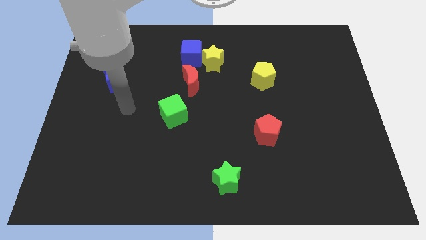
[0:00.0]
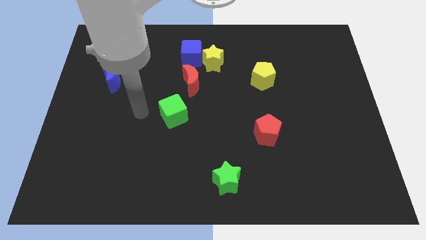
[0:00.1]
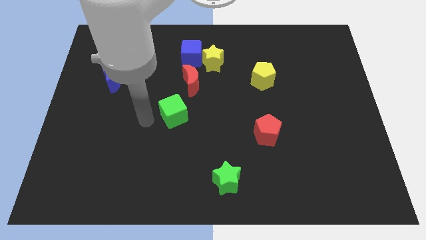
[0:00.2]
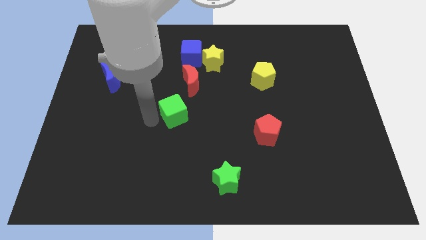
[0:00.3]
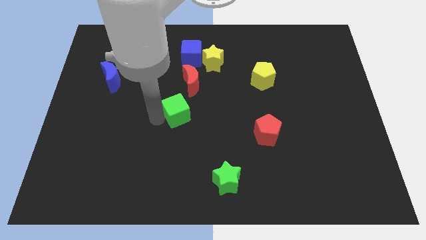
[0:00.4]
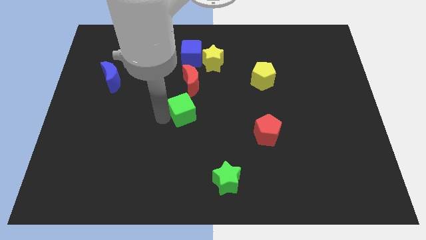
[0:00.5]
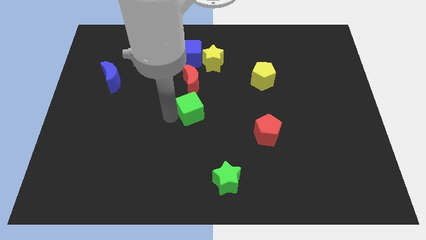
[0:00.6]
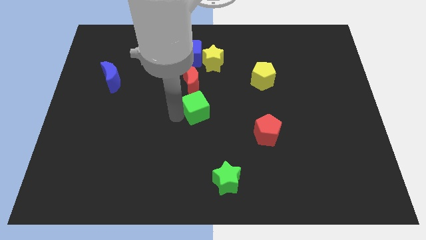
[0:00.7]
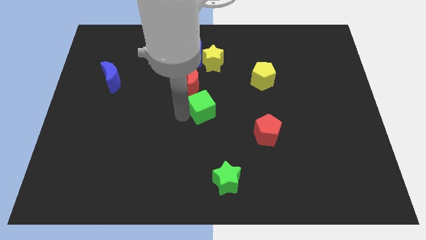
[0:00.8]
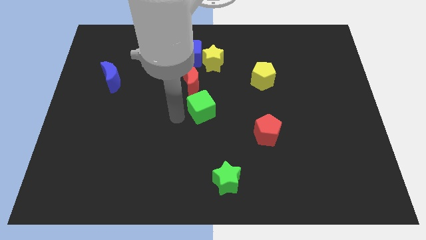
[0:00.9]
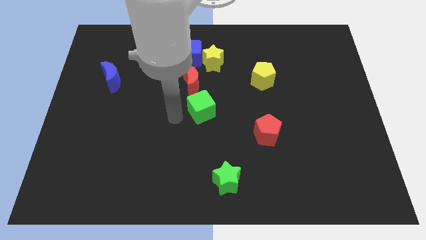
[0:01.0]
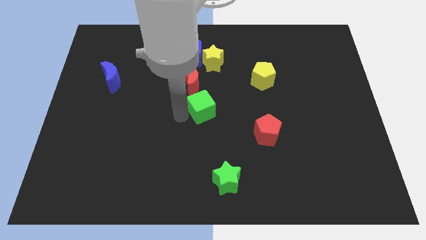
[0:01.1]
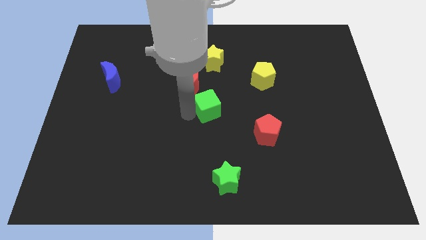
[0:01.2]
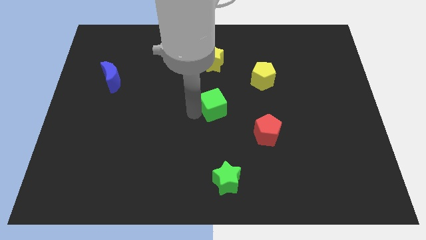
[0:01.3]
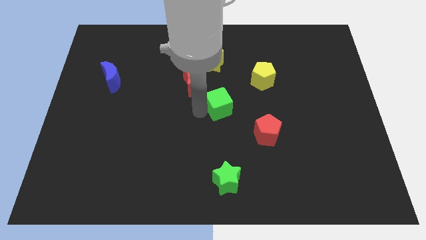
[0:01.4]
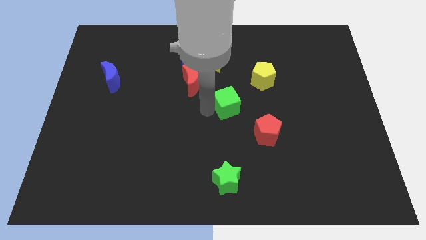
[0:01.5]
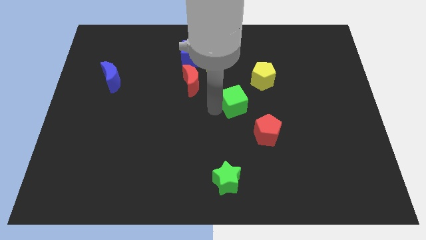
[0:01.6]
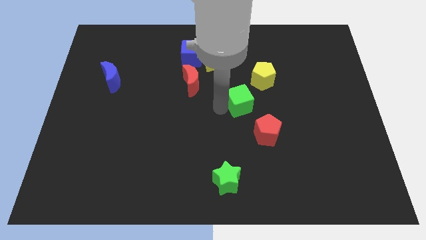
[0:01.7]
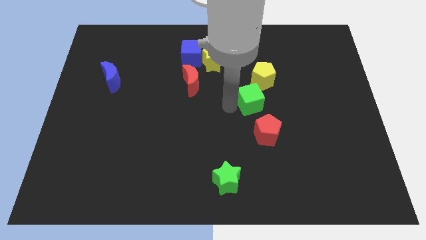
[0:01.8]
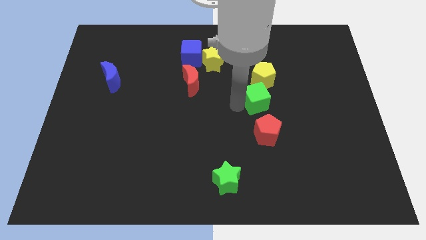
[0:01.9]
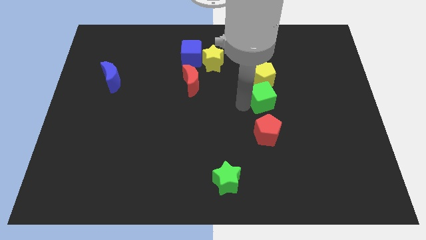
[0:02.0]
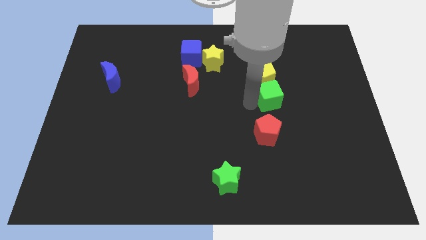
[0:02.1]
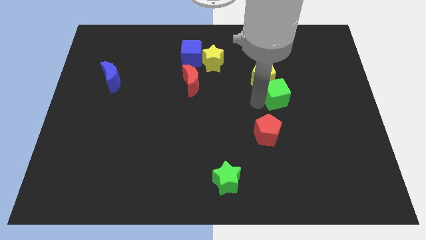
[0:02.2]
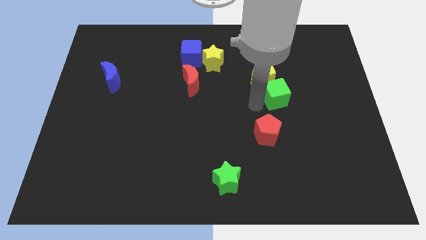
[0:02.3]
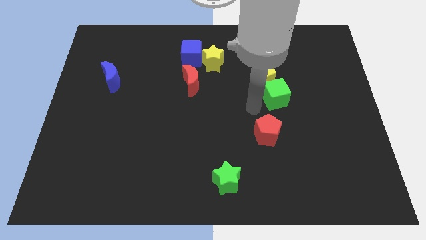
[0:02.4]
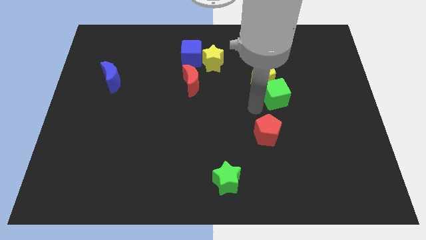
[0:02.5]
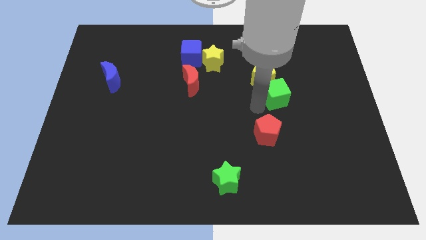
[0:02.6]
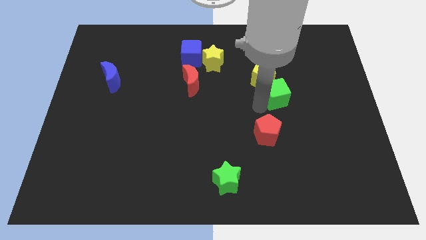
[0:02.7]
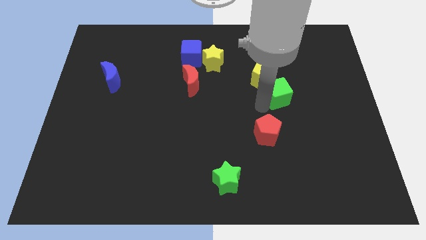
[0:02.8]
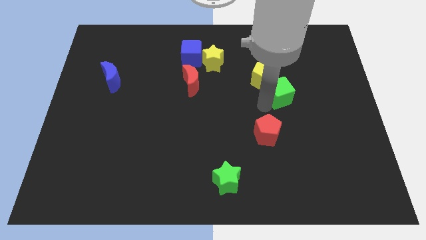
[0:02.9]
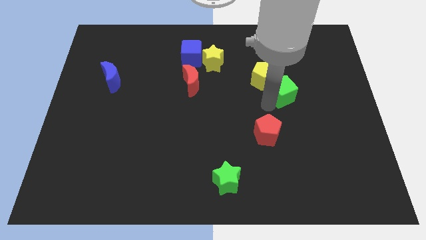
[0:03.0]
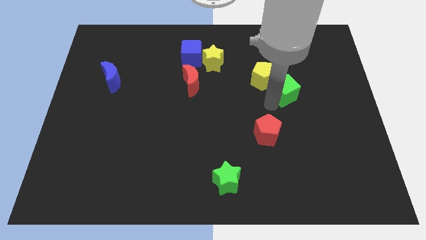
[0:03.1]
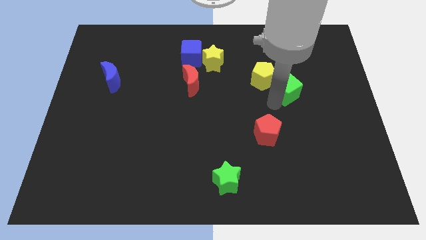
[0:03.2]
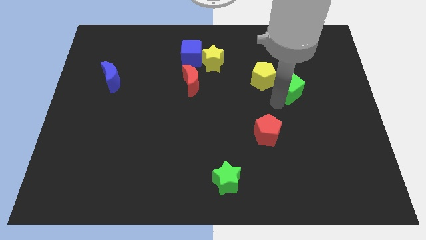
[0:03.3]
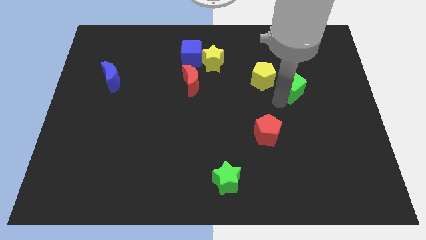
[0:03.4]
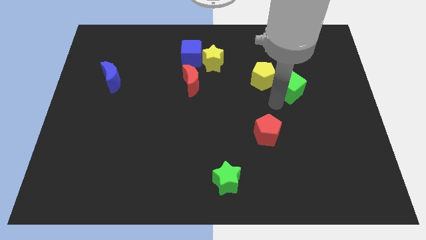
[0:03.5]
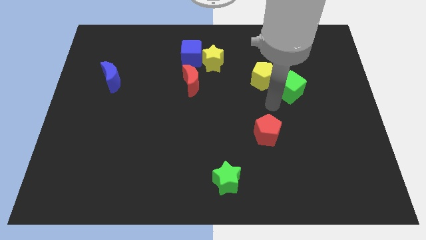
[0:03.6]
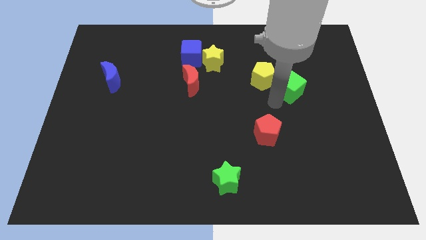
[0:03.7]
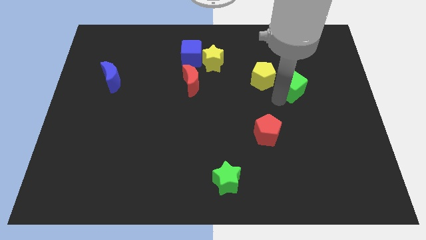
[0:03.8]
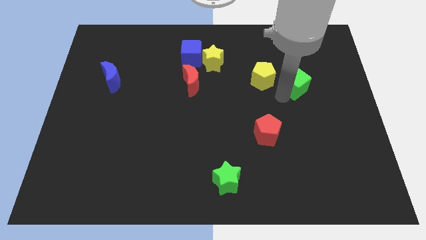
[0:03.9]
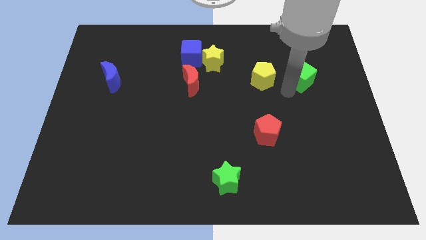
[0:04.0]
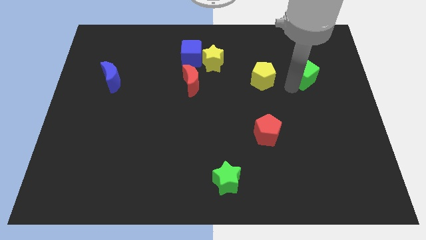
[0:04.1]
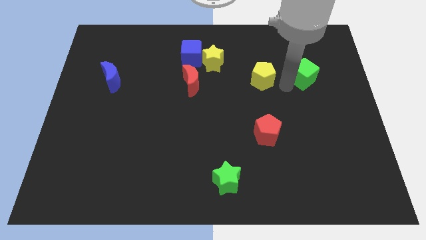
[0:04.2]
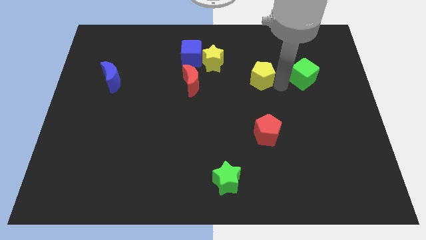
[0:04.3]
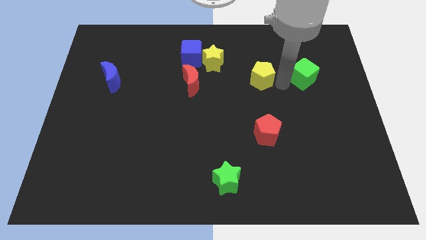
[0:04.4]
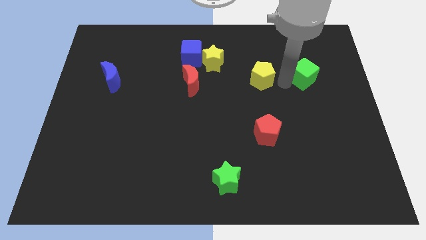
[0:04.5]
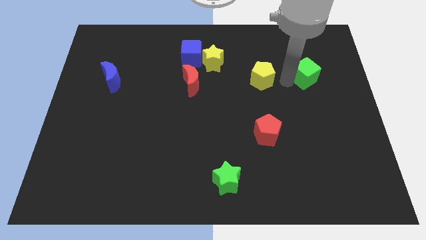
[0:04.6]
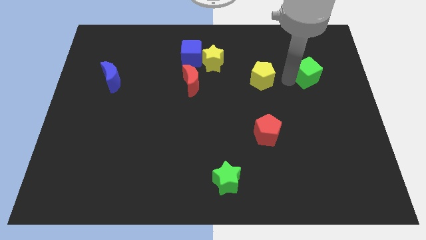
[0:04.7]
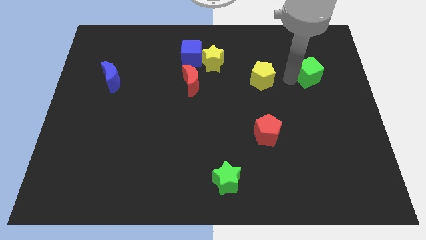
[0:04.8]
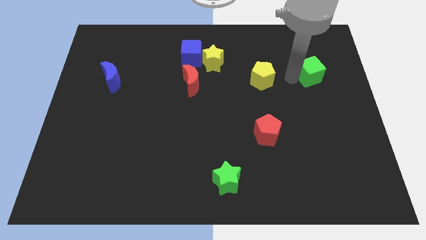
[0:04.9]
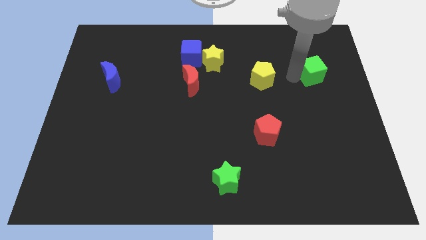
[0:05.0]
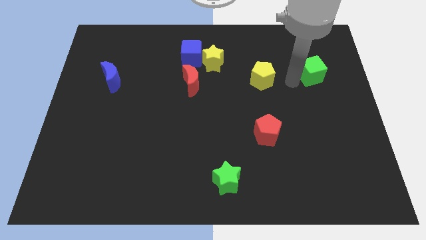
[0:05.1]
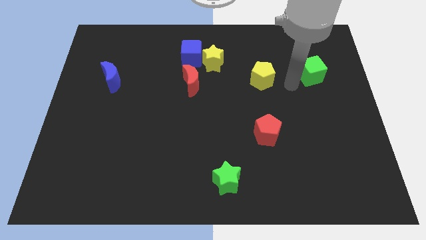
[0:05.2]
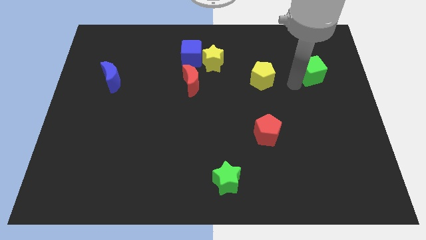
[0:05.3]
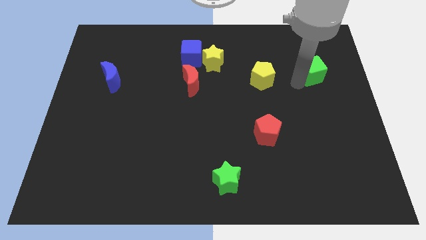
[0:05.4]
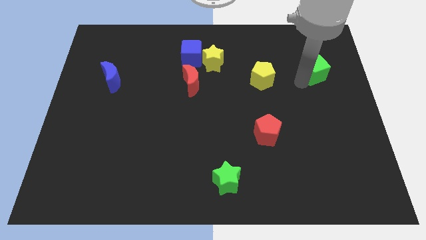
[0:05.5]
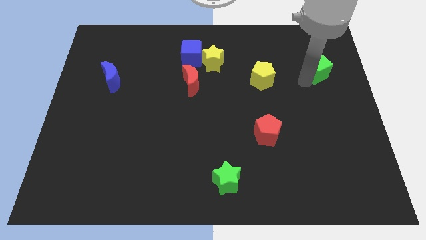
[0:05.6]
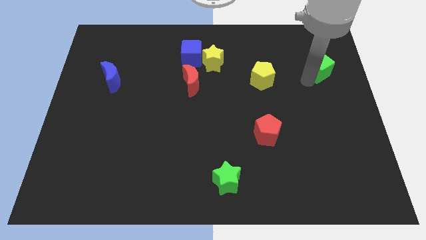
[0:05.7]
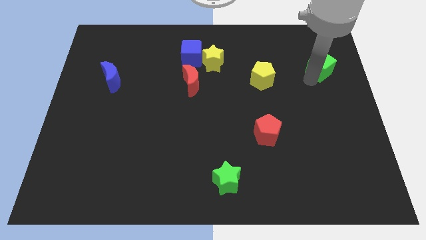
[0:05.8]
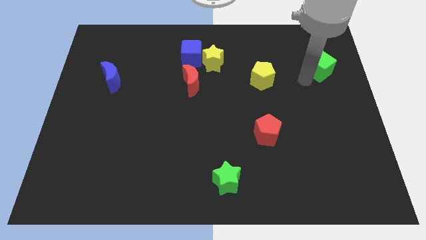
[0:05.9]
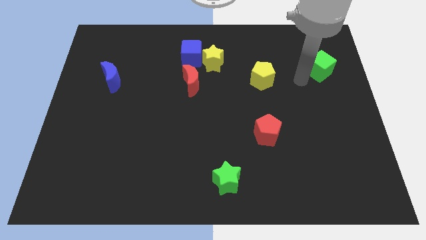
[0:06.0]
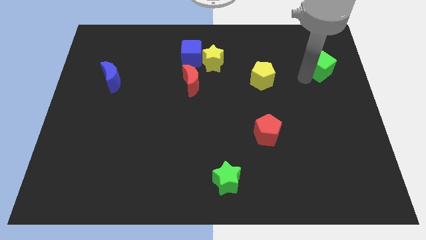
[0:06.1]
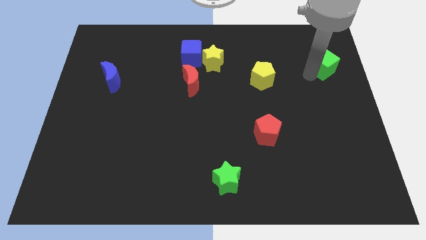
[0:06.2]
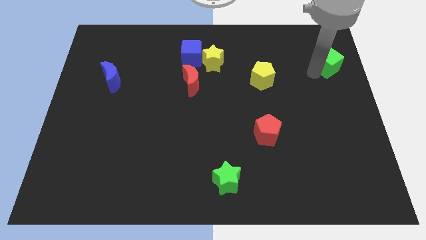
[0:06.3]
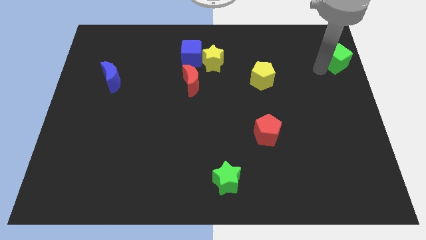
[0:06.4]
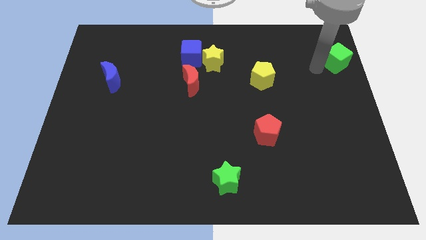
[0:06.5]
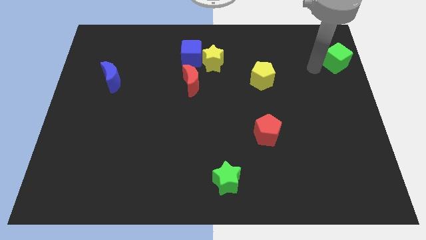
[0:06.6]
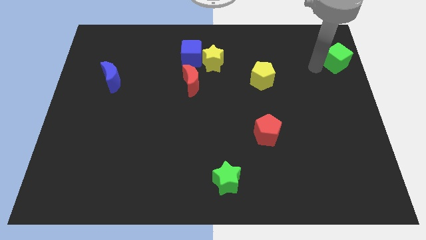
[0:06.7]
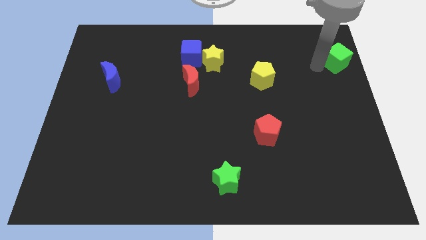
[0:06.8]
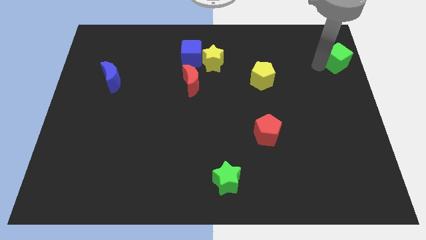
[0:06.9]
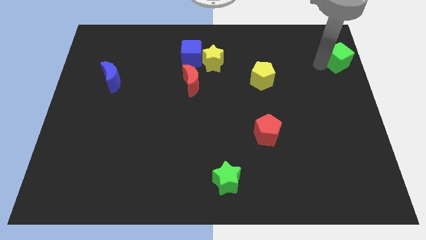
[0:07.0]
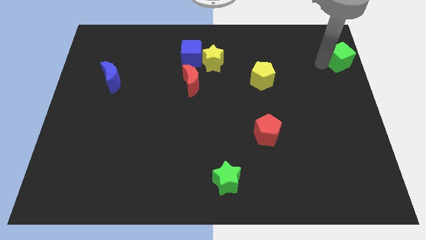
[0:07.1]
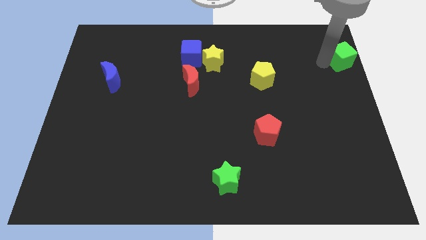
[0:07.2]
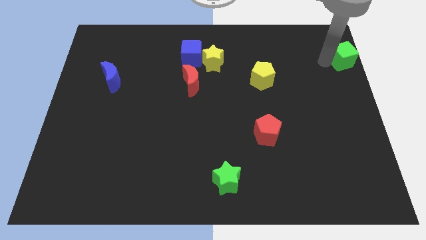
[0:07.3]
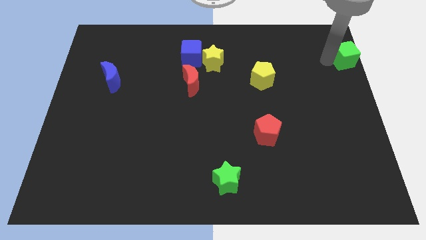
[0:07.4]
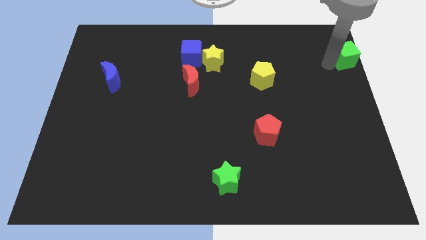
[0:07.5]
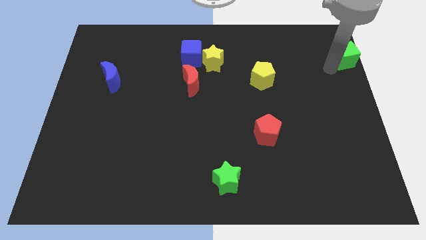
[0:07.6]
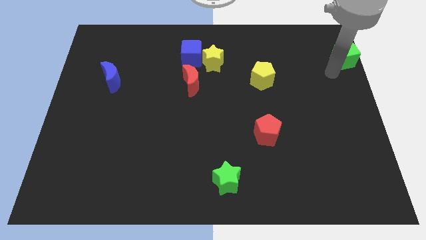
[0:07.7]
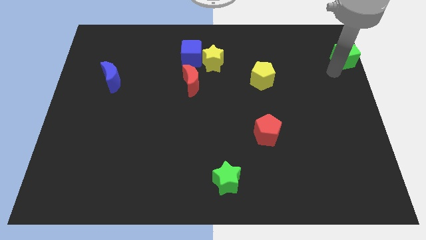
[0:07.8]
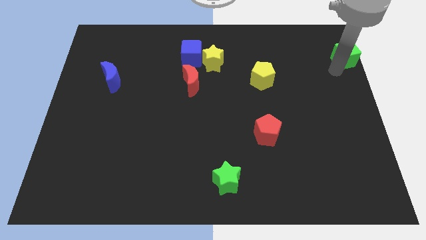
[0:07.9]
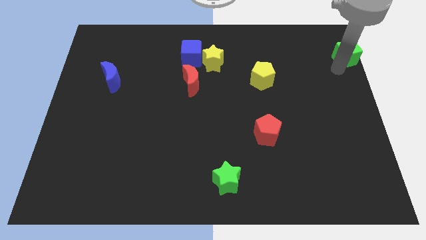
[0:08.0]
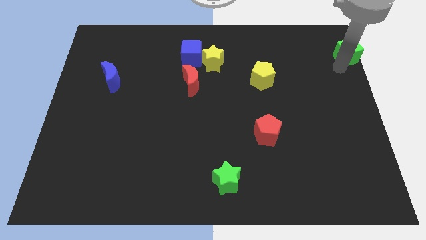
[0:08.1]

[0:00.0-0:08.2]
push the green cube to the top right
